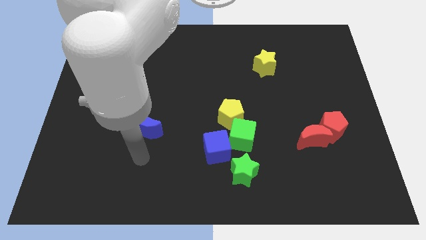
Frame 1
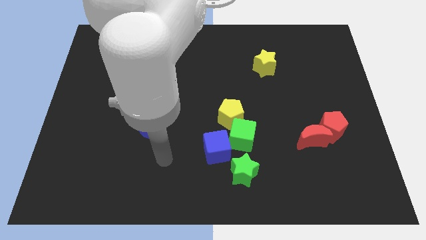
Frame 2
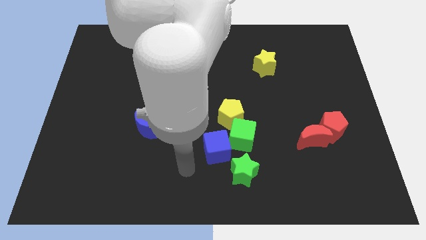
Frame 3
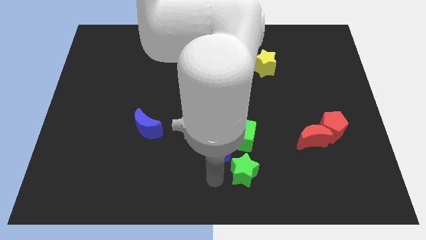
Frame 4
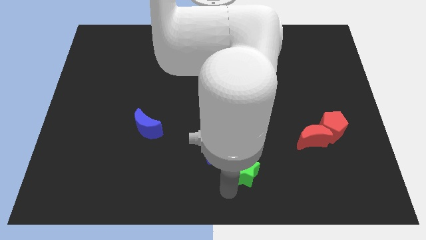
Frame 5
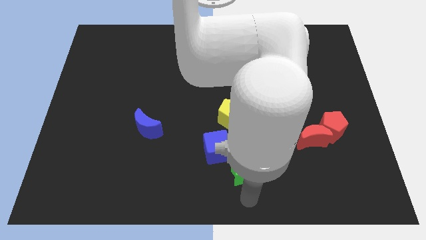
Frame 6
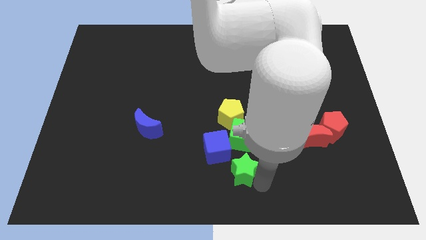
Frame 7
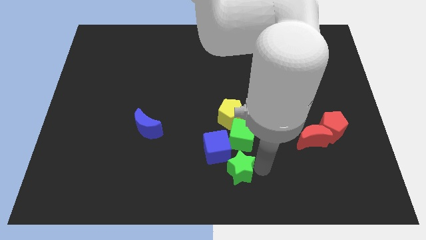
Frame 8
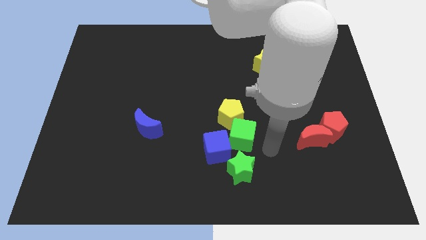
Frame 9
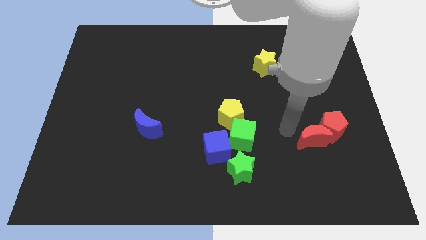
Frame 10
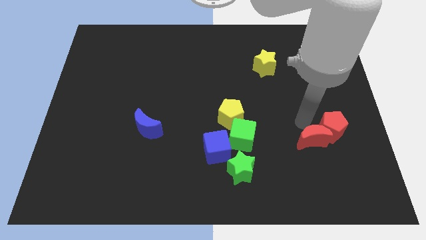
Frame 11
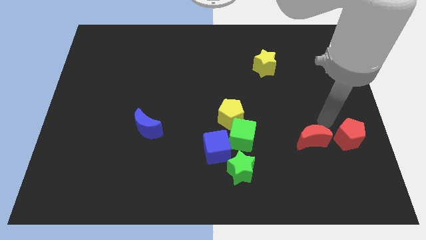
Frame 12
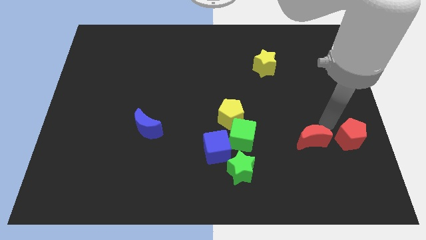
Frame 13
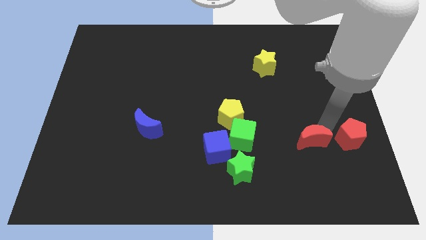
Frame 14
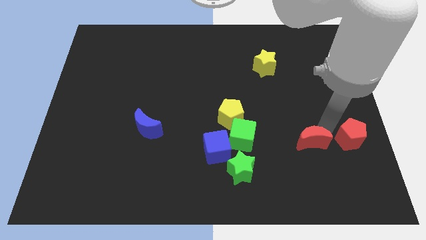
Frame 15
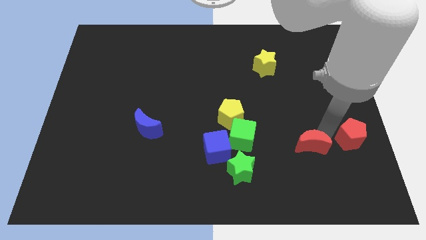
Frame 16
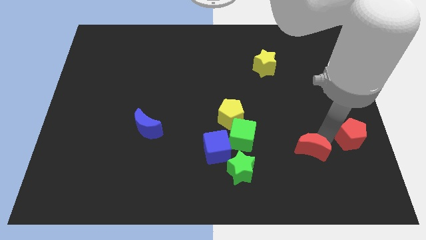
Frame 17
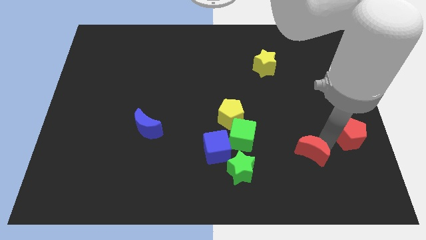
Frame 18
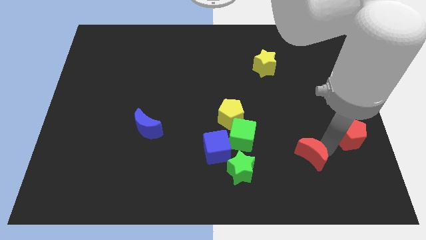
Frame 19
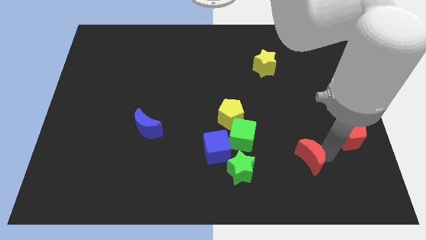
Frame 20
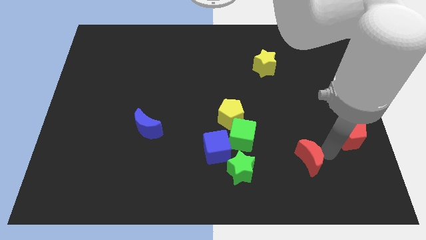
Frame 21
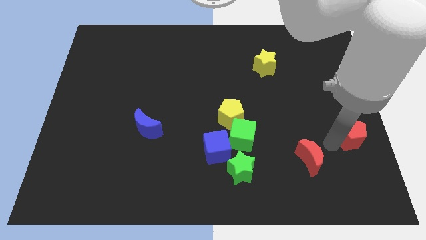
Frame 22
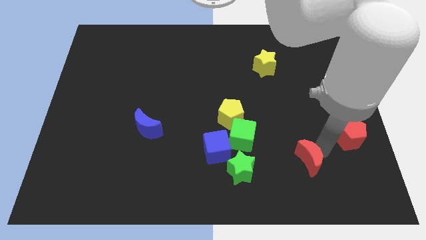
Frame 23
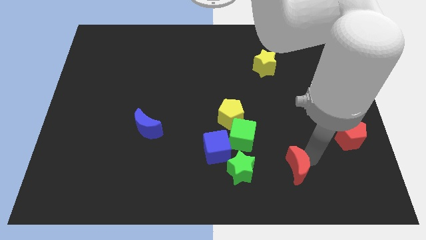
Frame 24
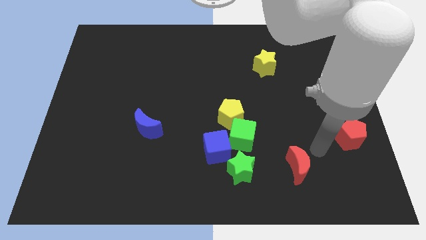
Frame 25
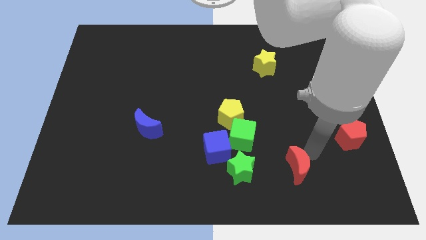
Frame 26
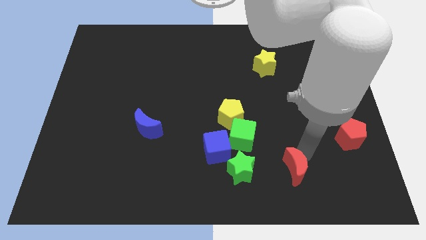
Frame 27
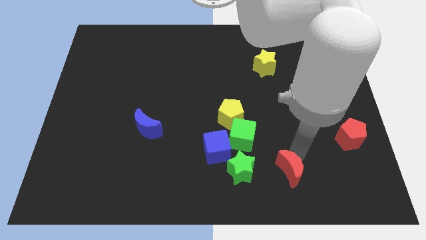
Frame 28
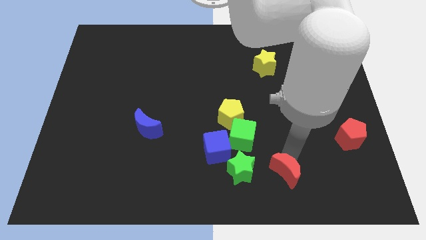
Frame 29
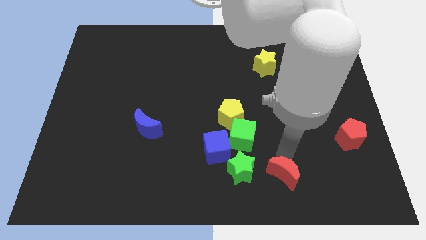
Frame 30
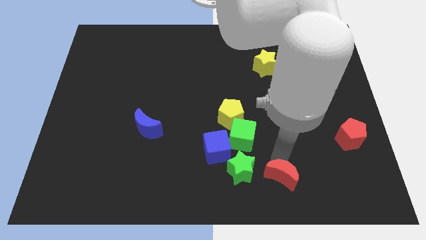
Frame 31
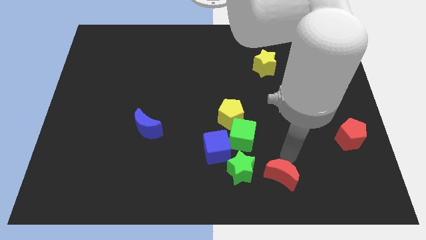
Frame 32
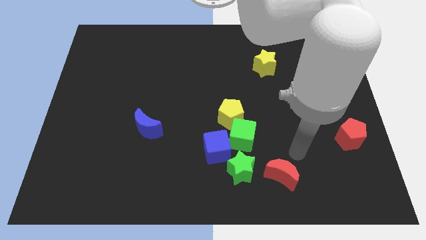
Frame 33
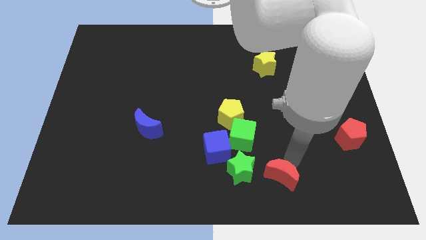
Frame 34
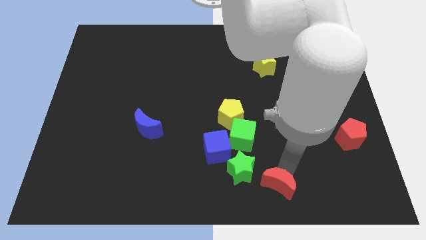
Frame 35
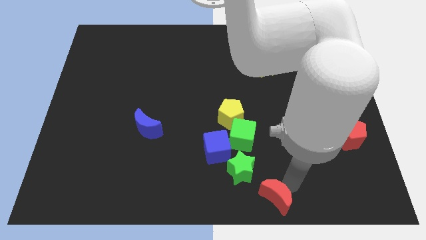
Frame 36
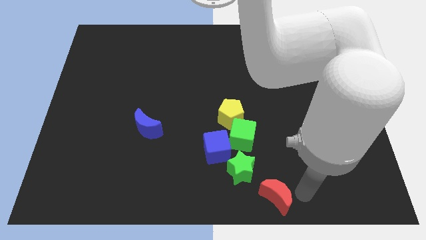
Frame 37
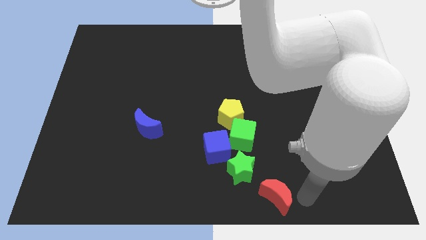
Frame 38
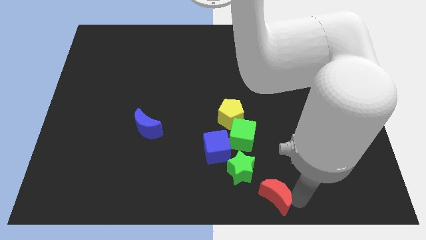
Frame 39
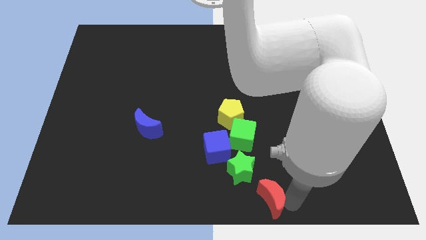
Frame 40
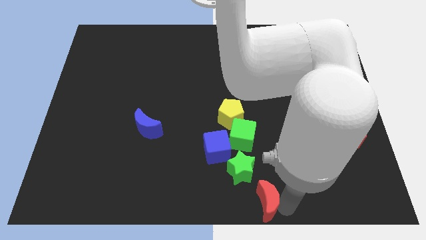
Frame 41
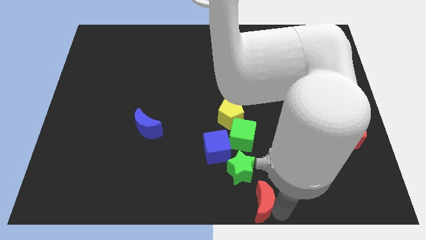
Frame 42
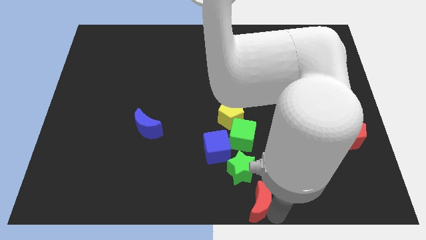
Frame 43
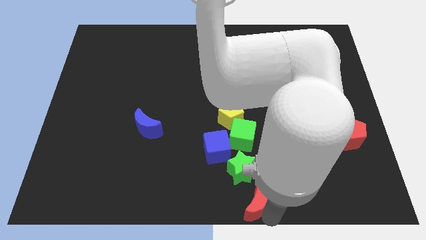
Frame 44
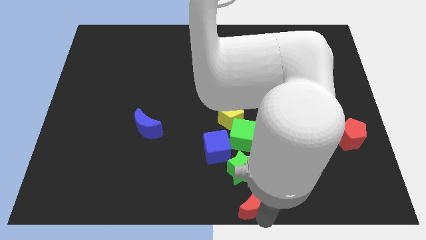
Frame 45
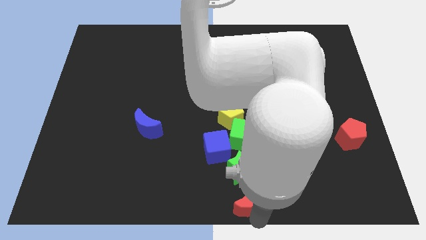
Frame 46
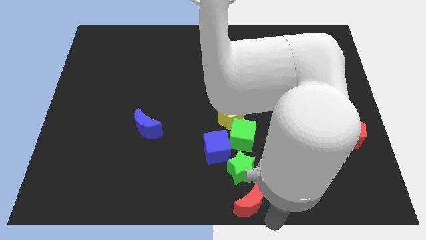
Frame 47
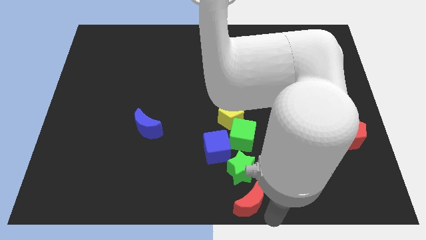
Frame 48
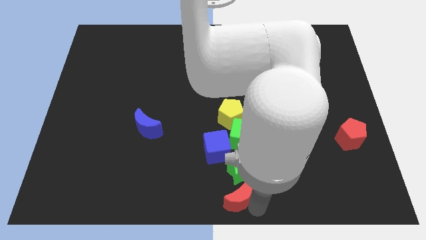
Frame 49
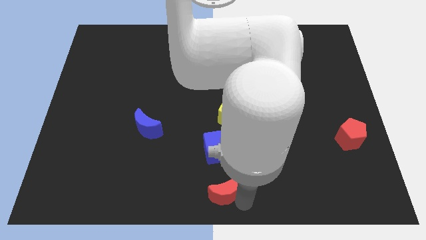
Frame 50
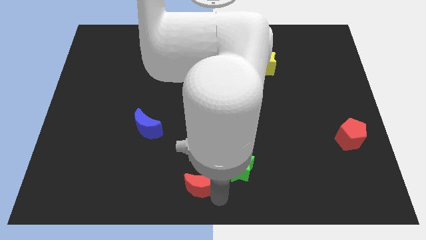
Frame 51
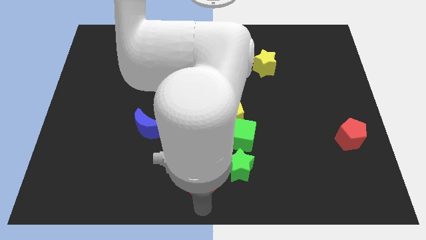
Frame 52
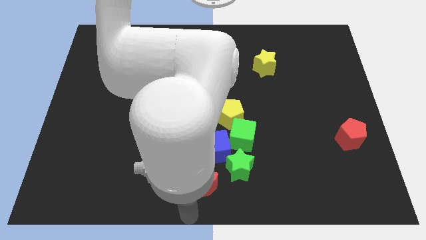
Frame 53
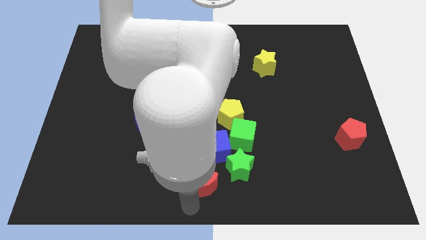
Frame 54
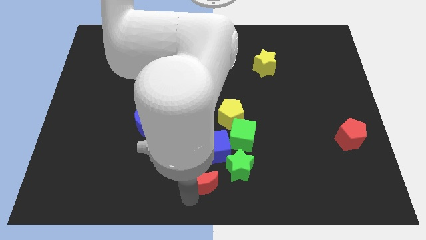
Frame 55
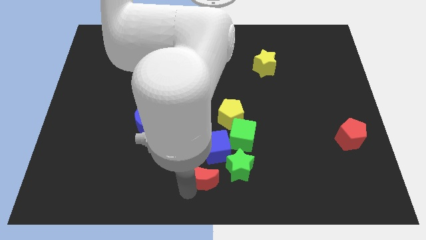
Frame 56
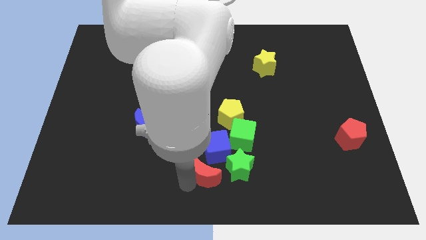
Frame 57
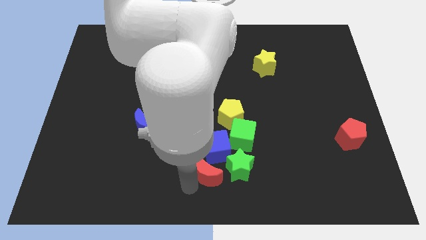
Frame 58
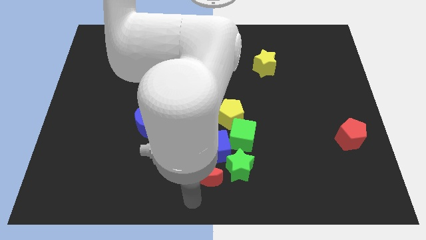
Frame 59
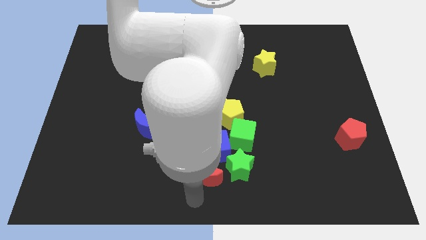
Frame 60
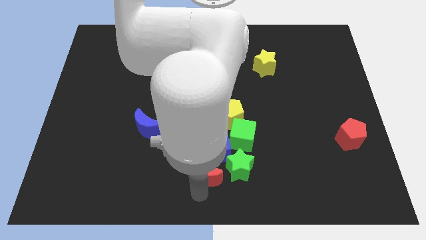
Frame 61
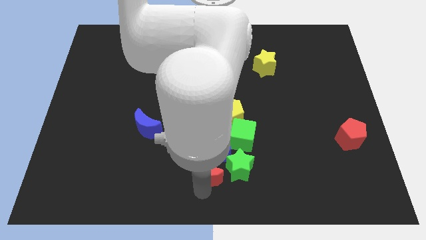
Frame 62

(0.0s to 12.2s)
move the red moon next to the blue cube

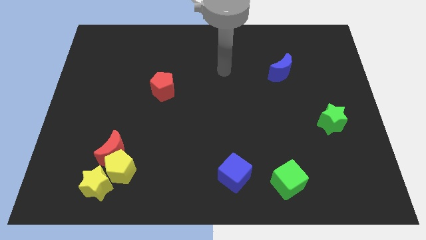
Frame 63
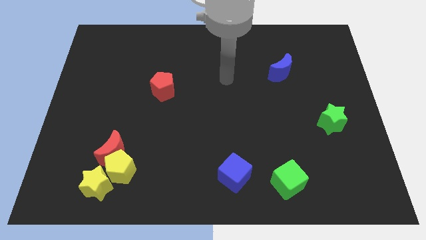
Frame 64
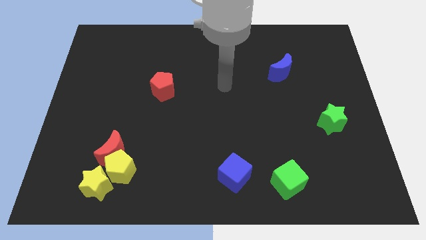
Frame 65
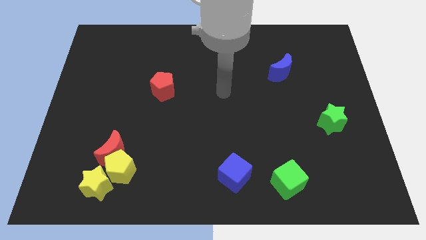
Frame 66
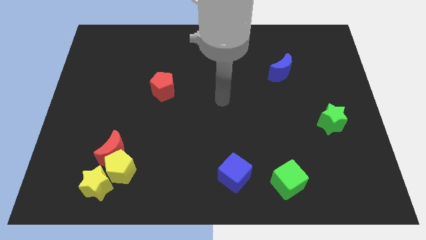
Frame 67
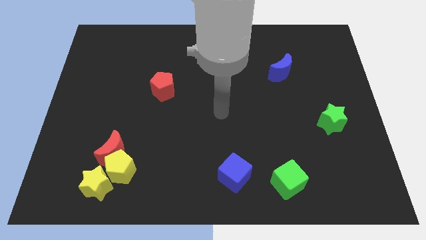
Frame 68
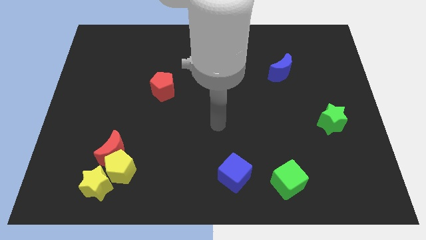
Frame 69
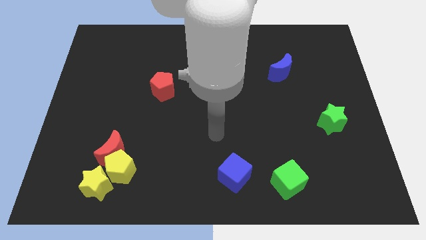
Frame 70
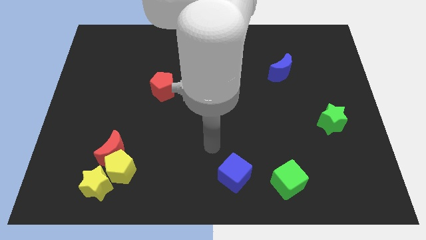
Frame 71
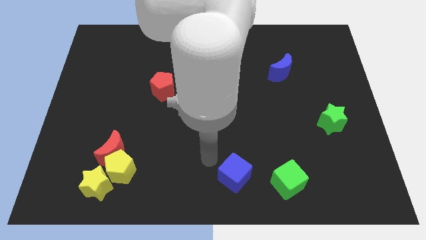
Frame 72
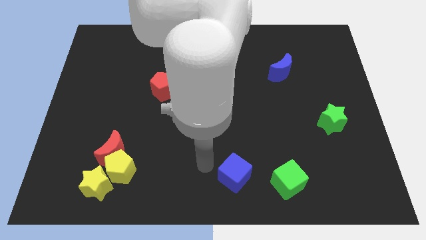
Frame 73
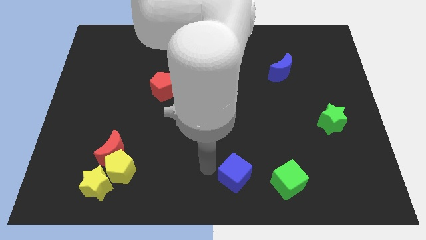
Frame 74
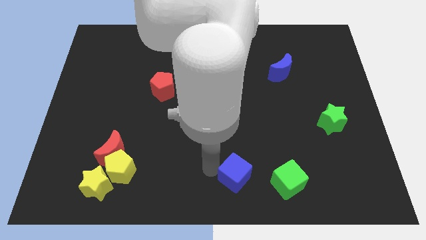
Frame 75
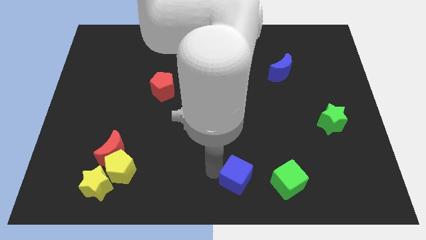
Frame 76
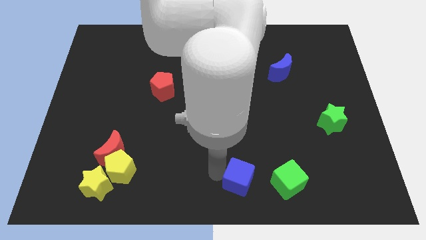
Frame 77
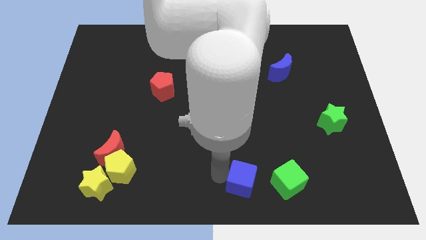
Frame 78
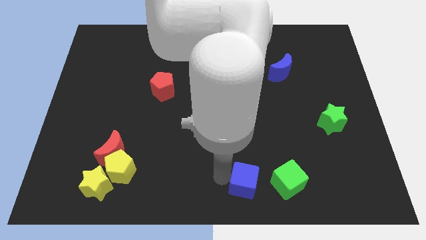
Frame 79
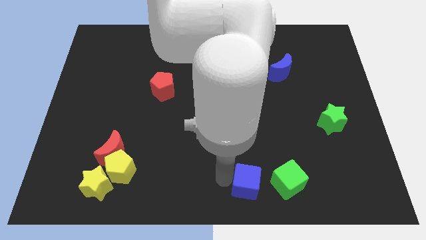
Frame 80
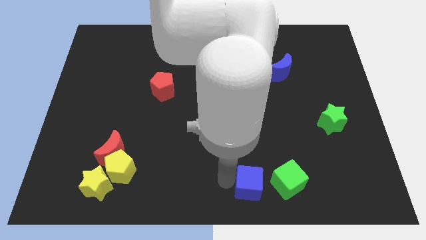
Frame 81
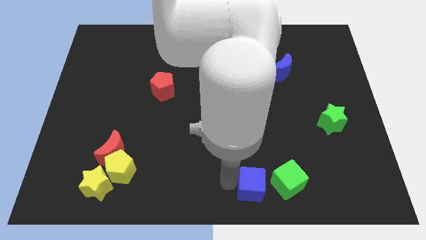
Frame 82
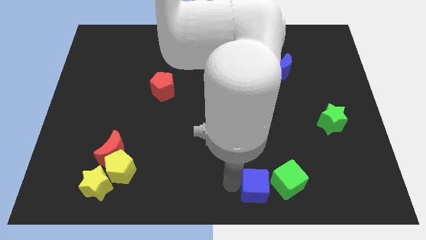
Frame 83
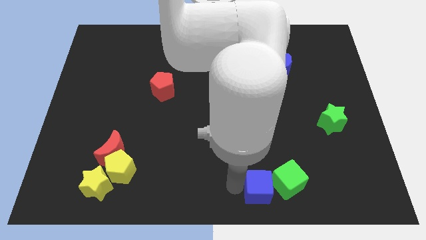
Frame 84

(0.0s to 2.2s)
move the blue cube to the green cube
